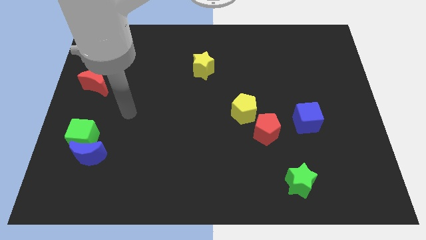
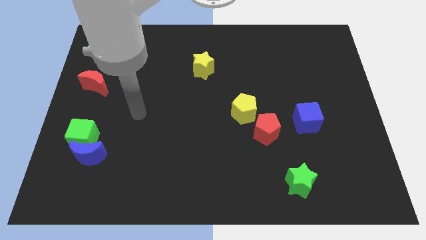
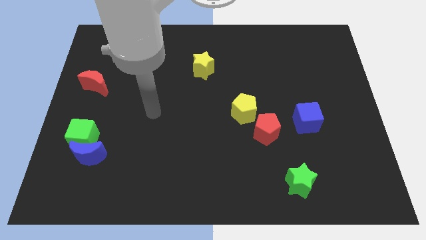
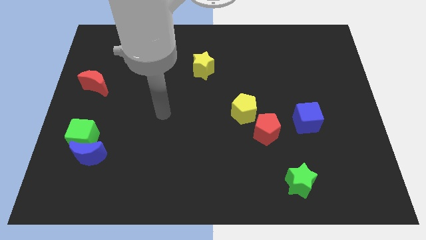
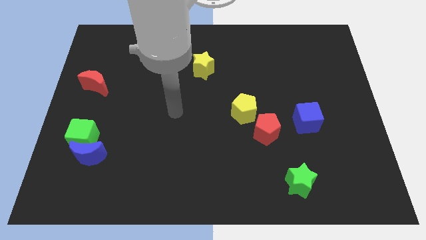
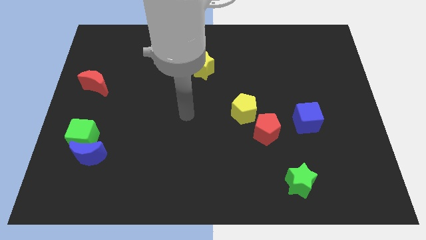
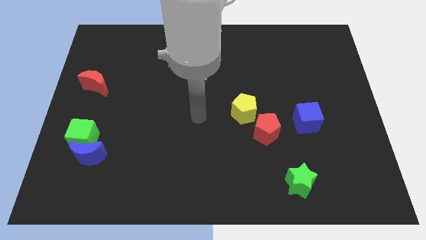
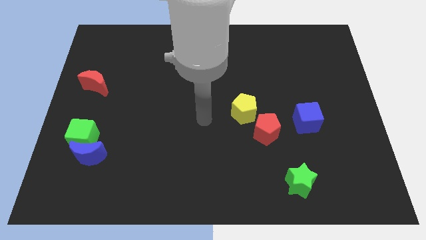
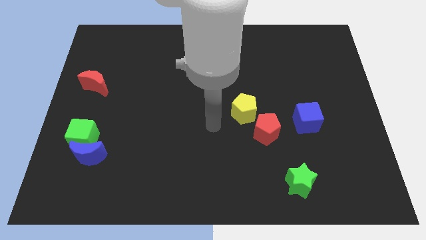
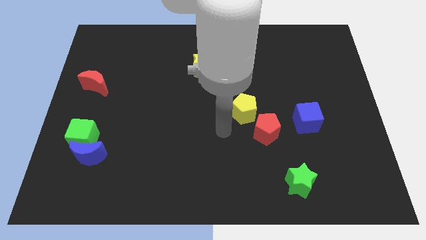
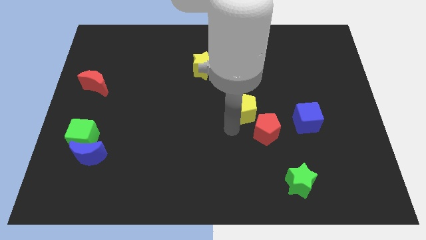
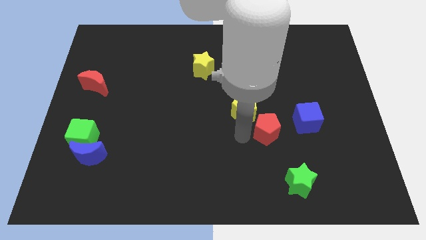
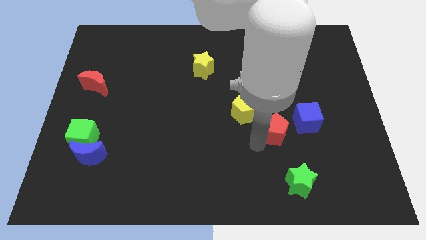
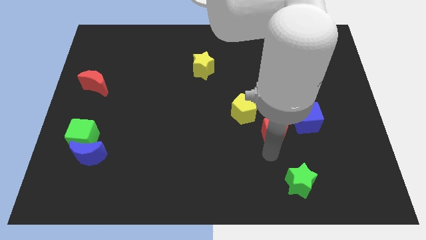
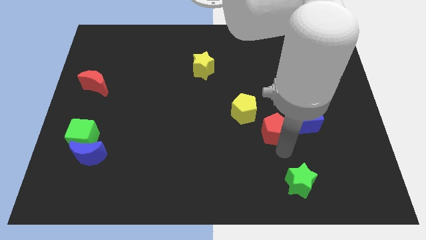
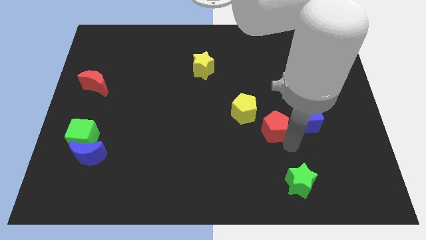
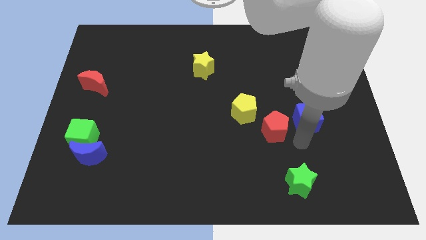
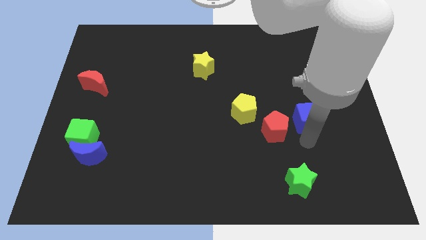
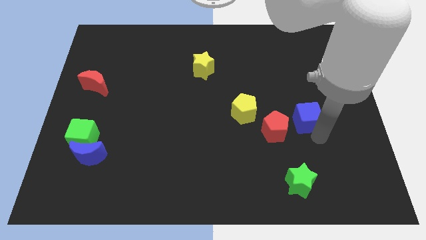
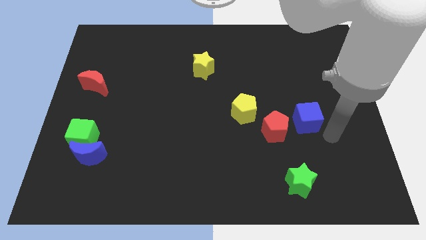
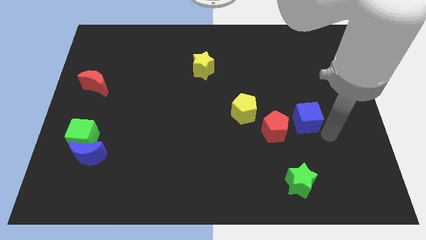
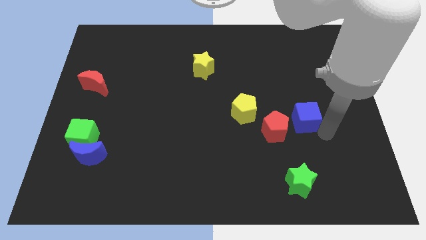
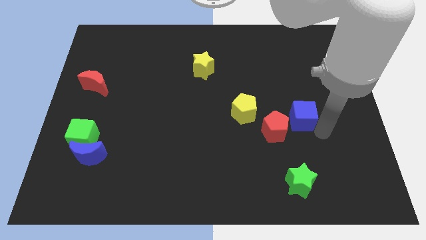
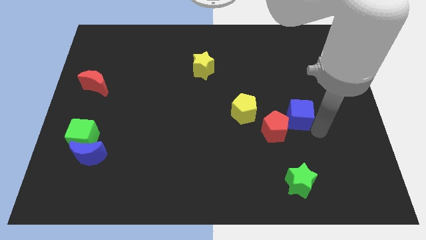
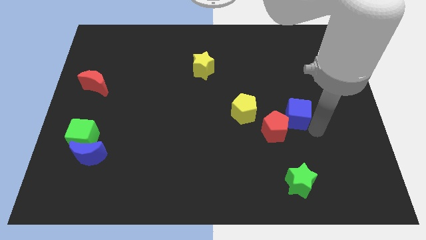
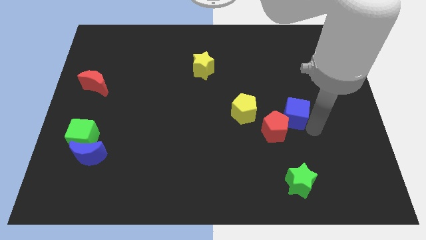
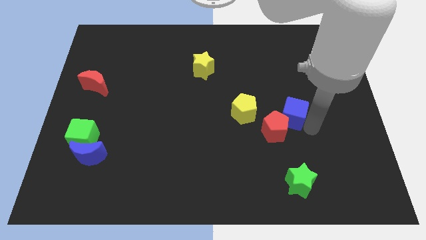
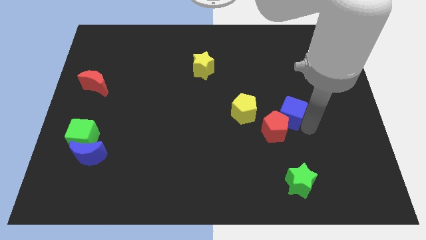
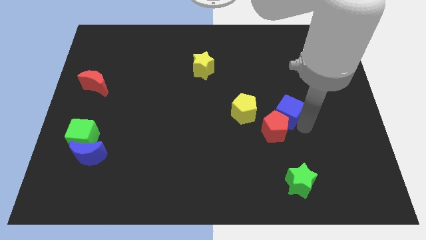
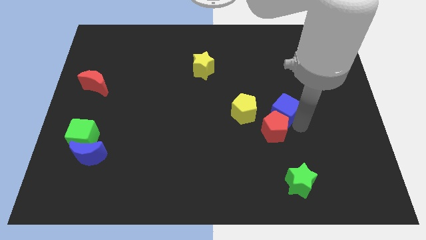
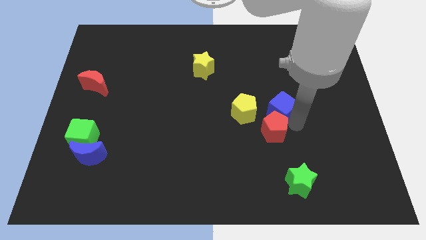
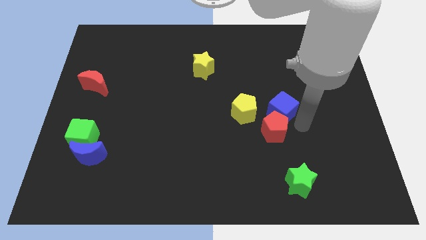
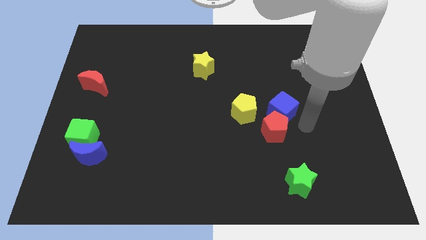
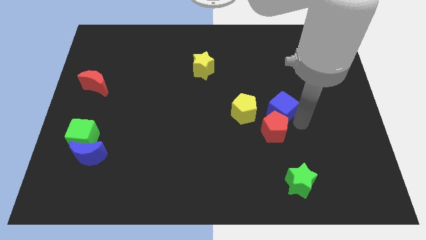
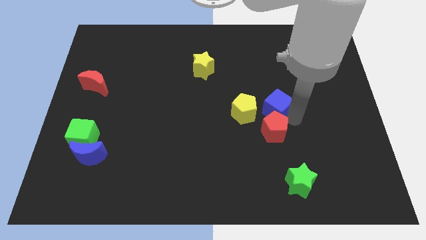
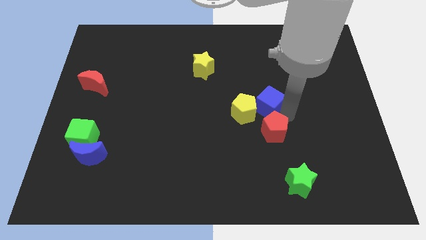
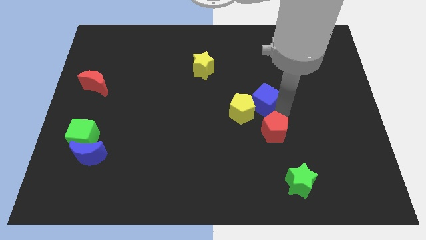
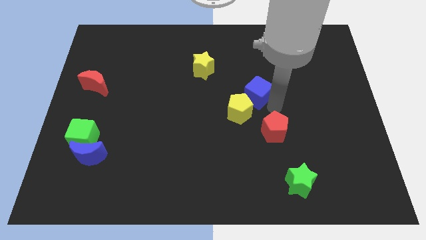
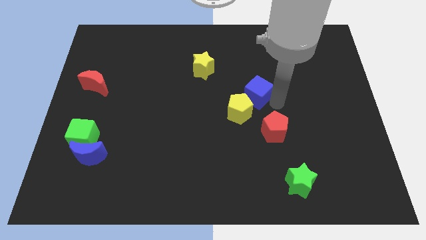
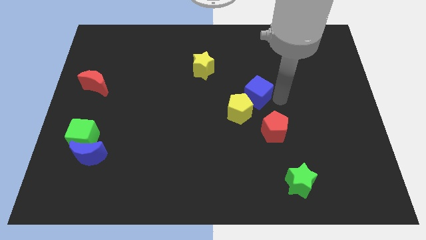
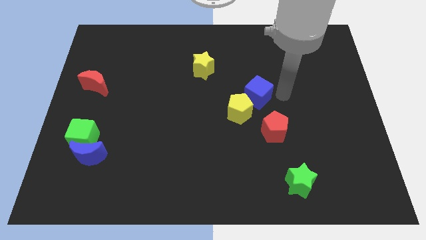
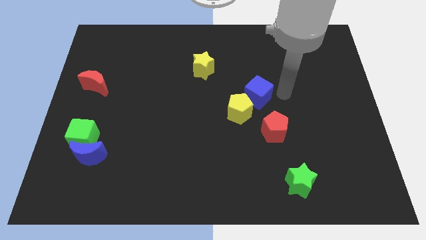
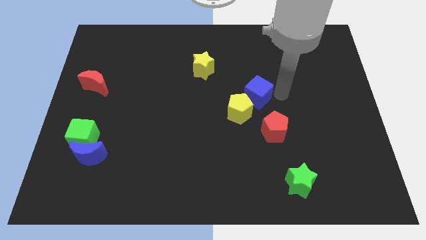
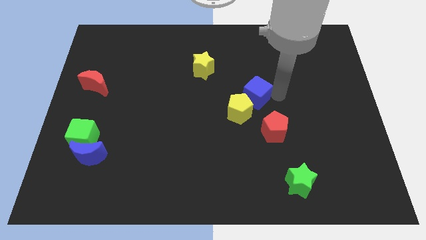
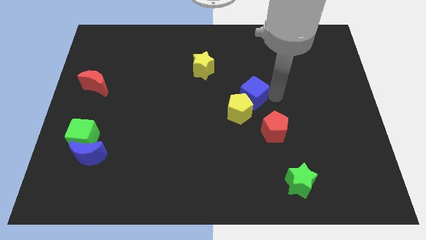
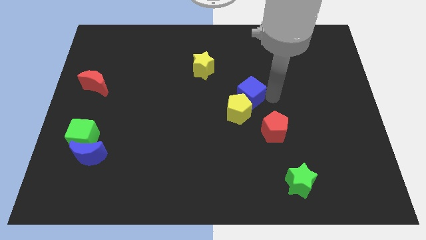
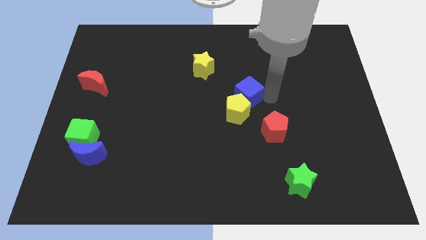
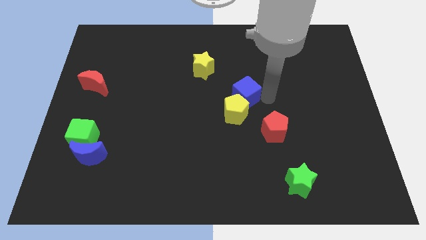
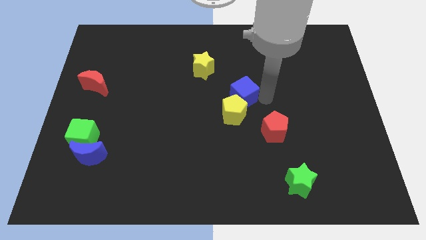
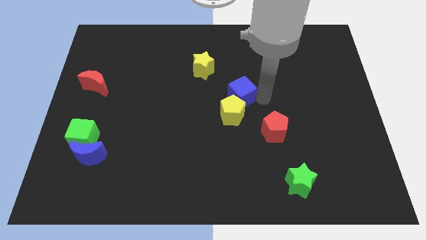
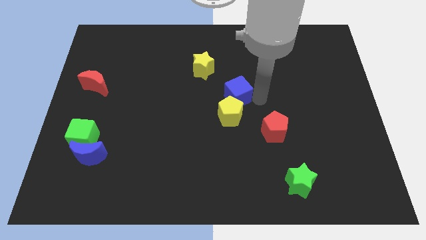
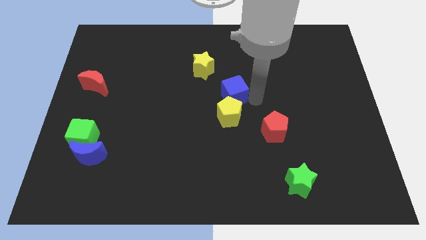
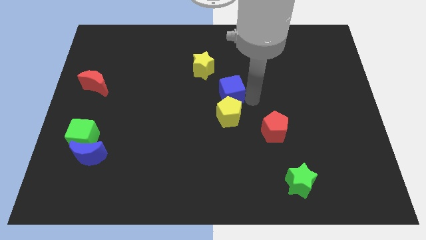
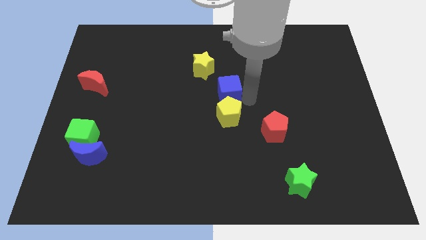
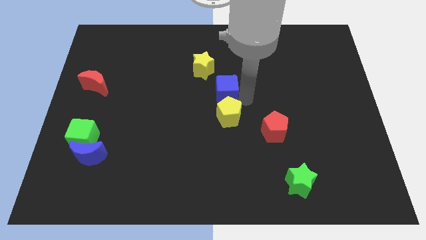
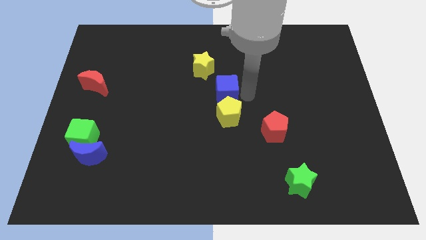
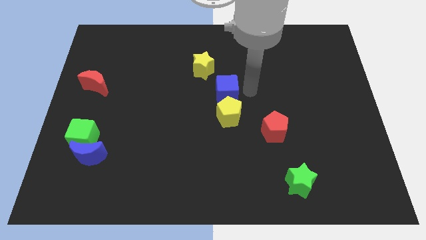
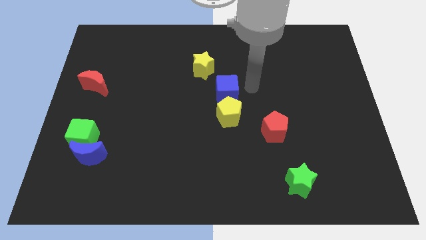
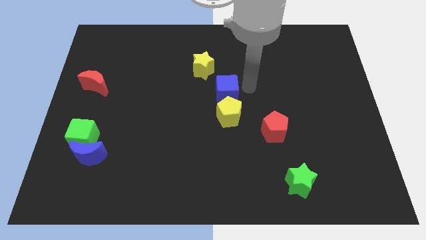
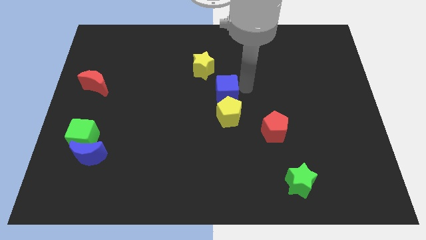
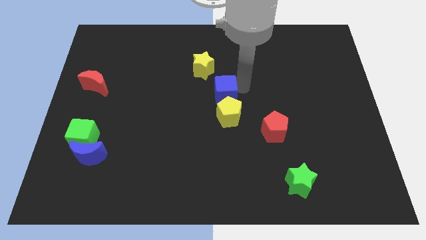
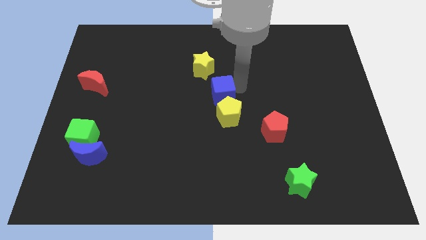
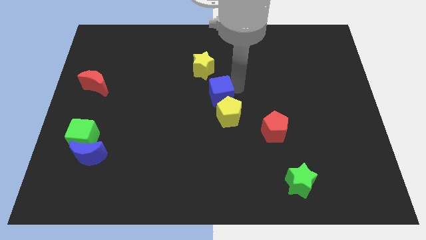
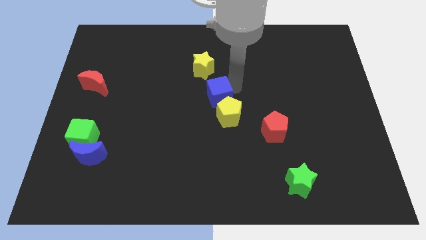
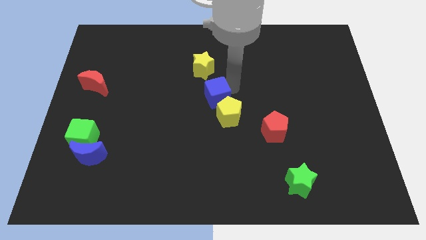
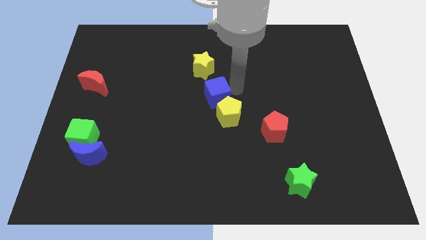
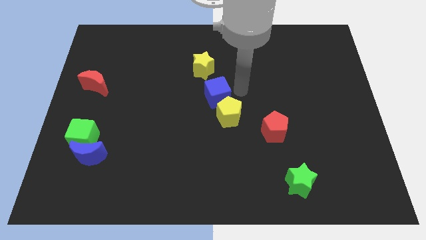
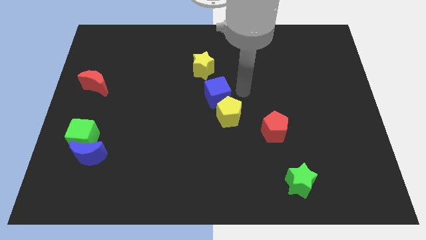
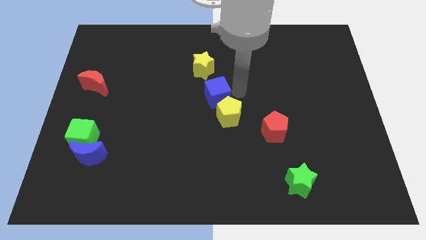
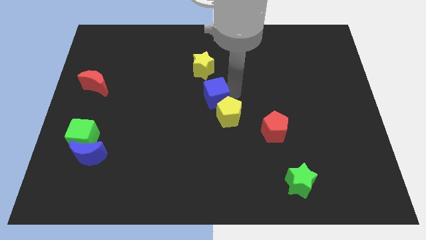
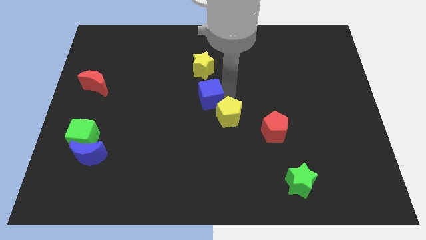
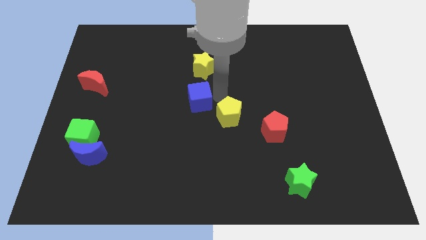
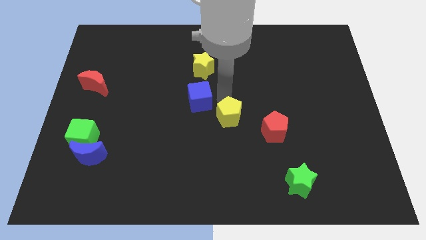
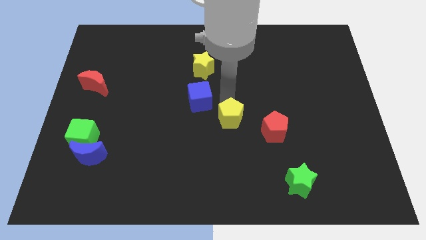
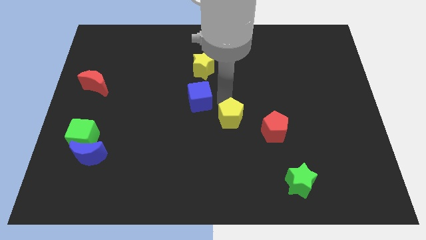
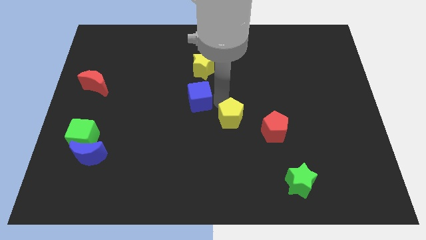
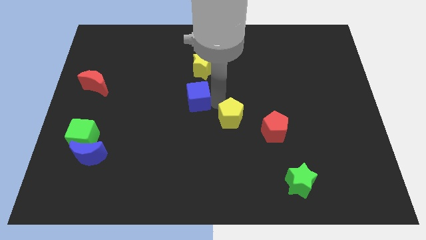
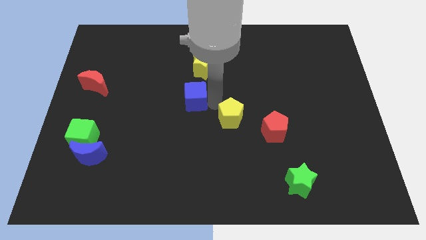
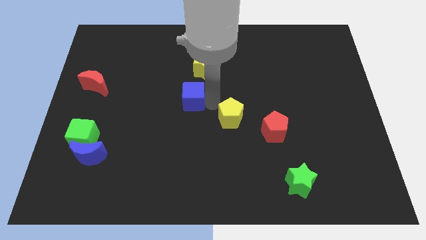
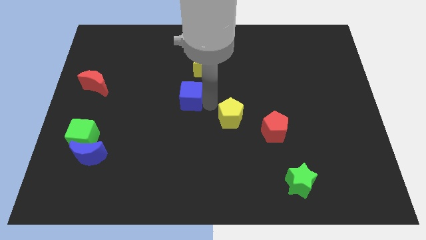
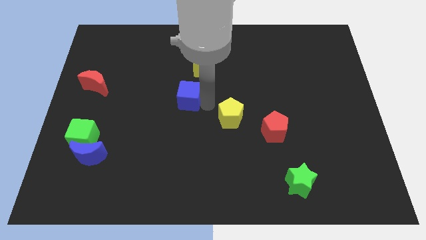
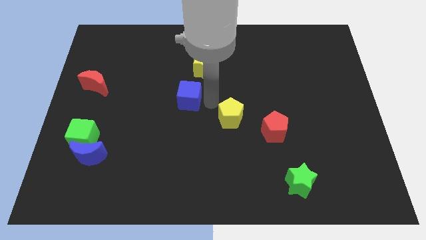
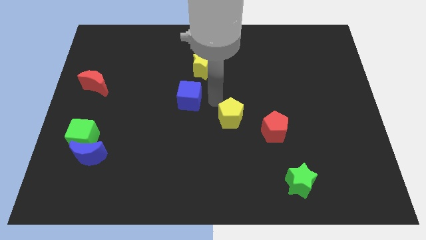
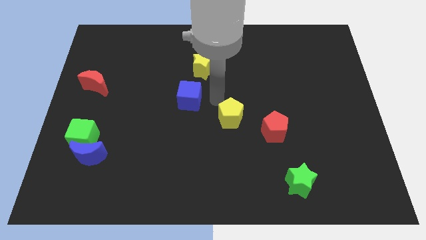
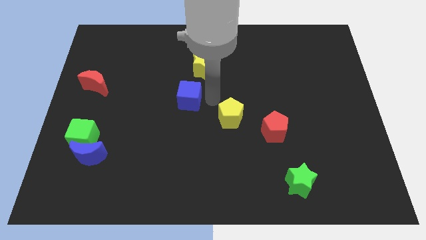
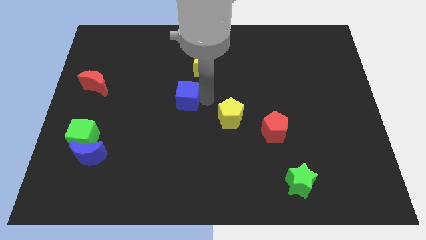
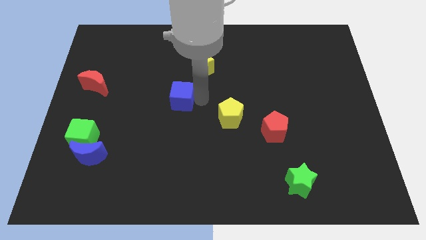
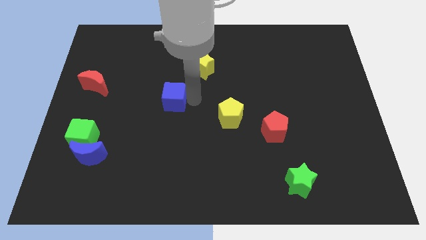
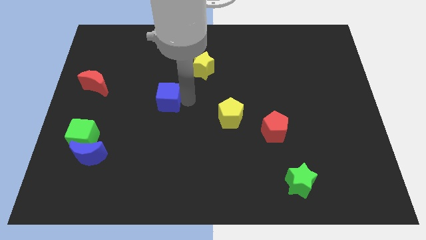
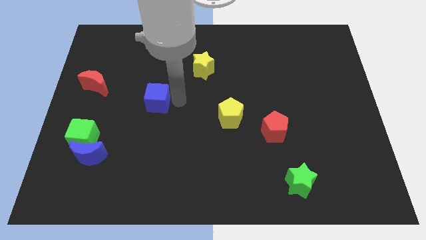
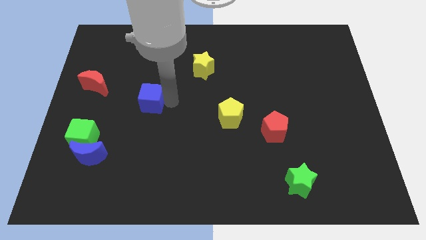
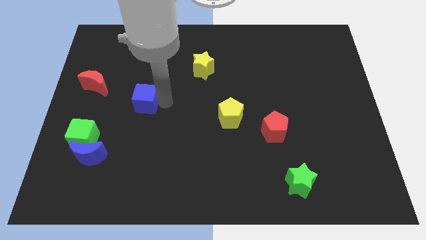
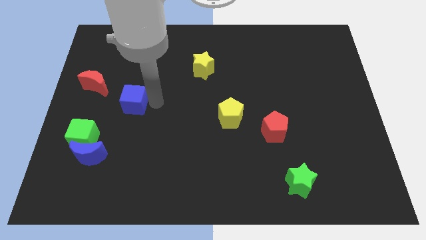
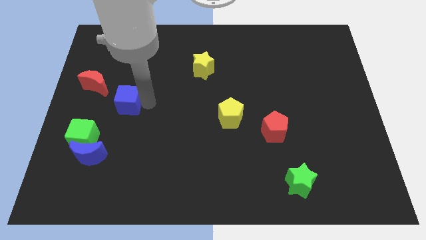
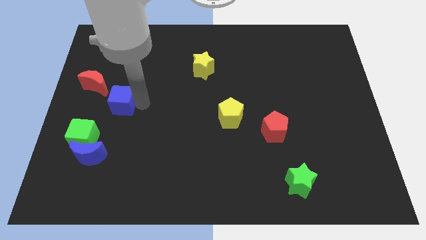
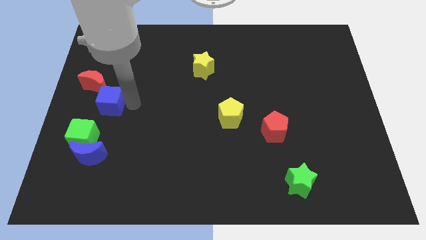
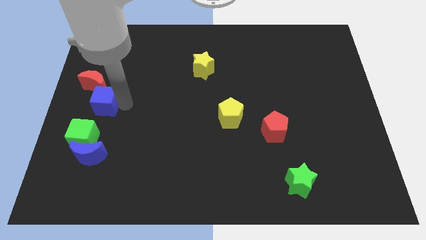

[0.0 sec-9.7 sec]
put the blue cube to the center left
